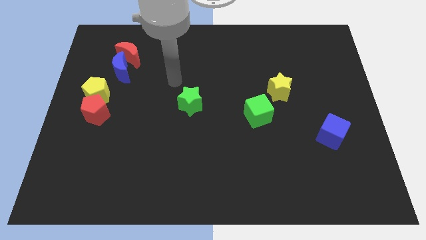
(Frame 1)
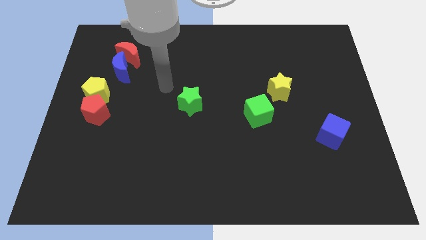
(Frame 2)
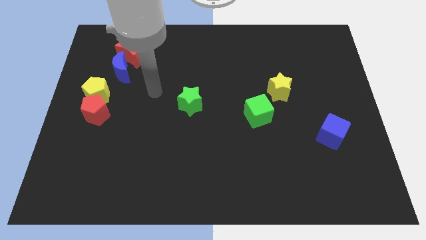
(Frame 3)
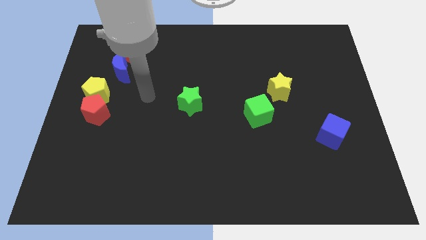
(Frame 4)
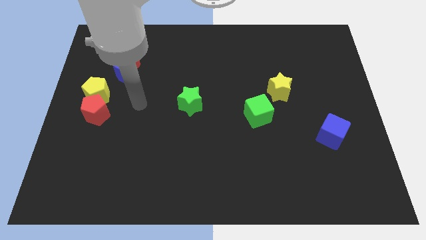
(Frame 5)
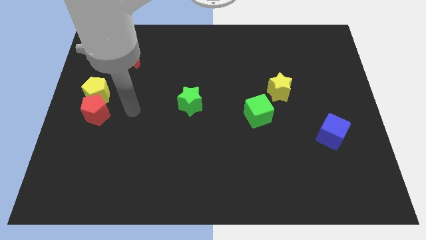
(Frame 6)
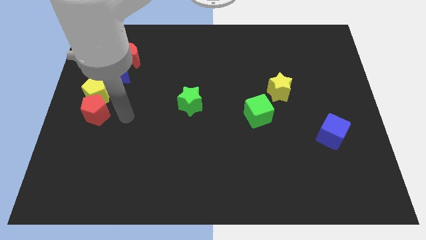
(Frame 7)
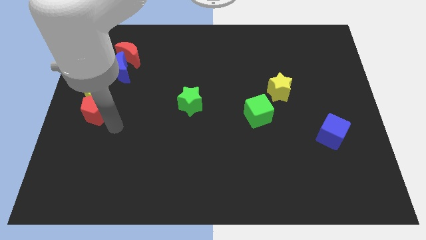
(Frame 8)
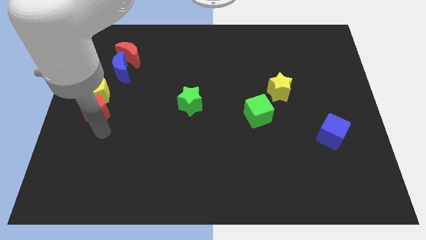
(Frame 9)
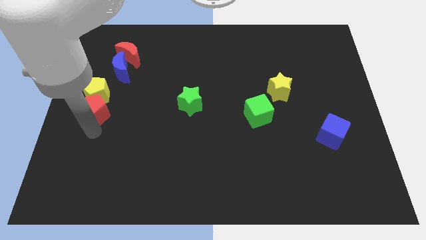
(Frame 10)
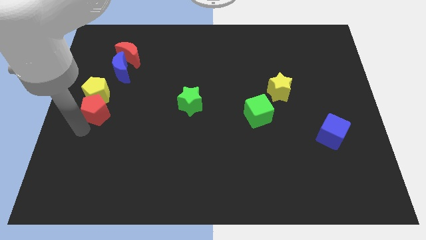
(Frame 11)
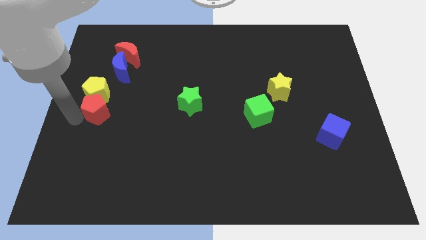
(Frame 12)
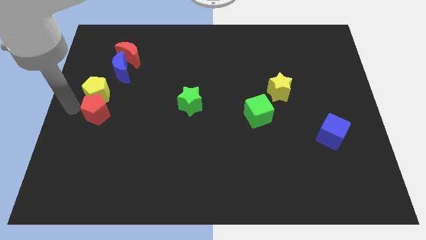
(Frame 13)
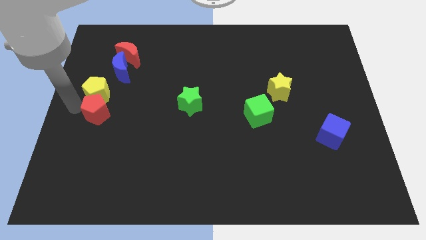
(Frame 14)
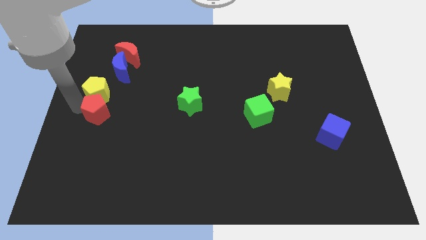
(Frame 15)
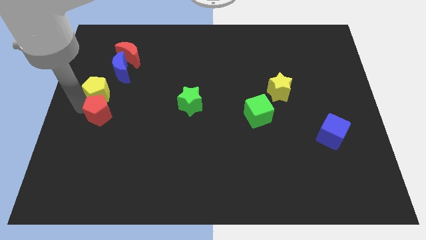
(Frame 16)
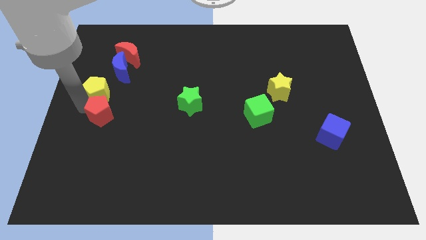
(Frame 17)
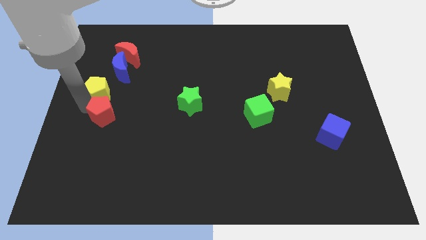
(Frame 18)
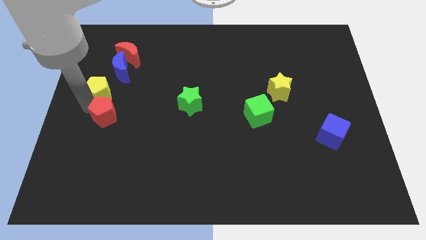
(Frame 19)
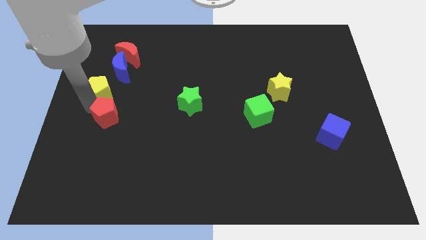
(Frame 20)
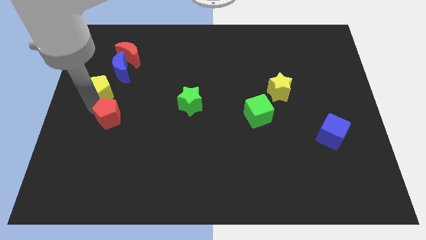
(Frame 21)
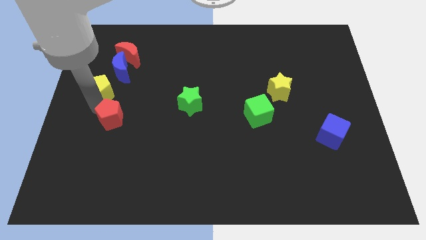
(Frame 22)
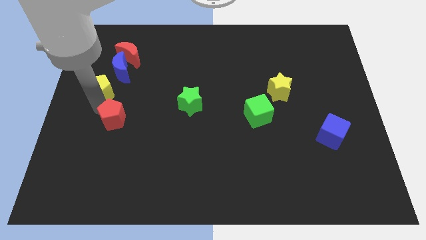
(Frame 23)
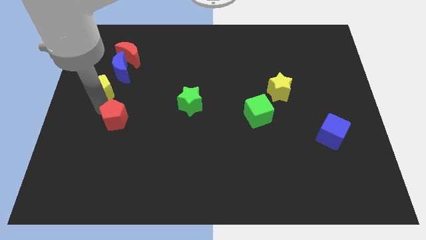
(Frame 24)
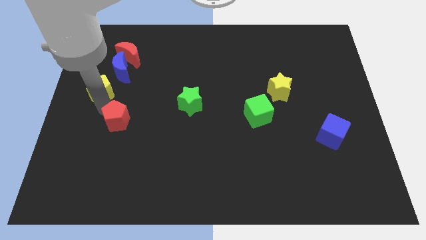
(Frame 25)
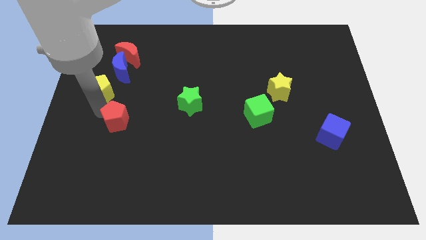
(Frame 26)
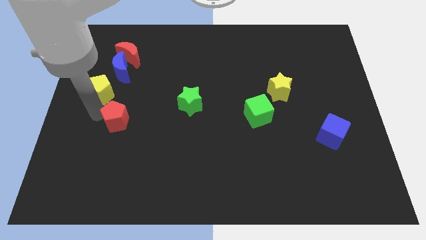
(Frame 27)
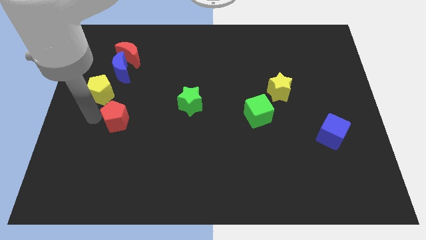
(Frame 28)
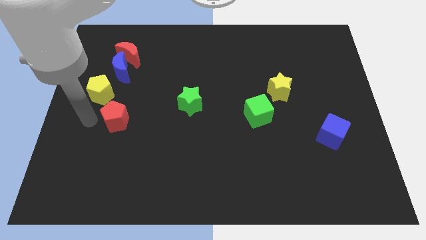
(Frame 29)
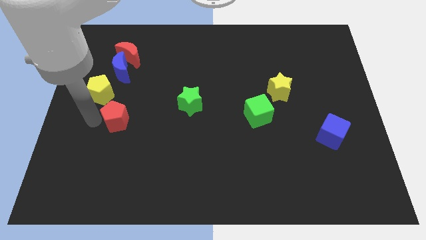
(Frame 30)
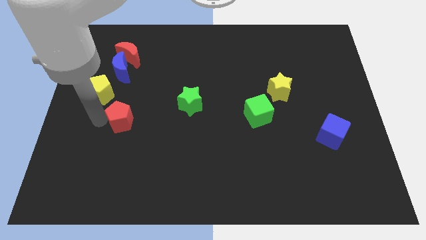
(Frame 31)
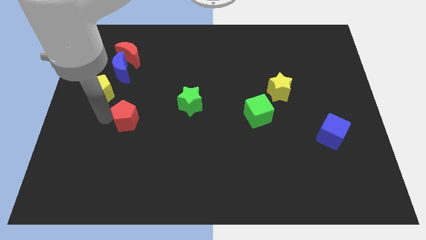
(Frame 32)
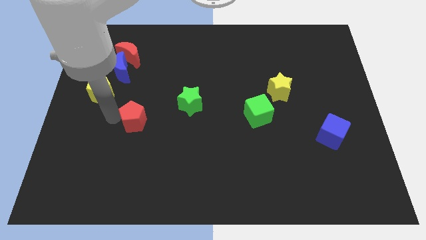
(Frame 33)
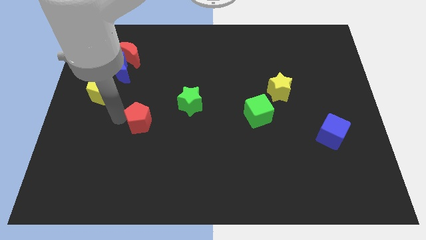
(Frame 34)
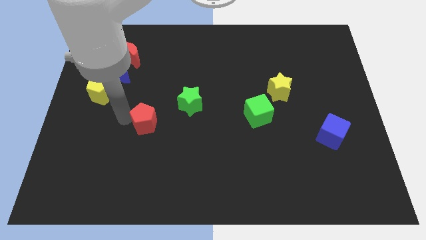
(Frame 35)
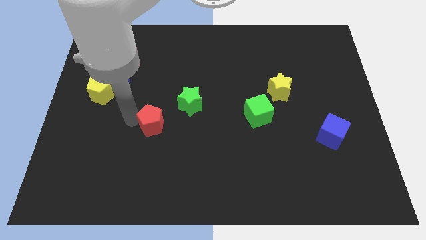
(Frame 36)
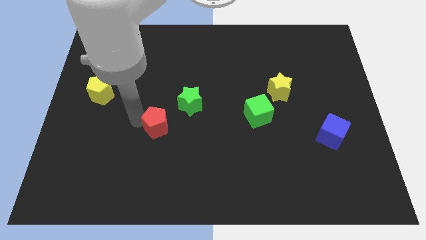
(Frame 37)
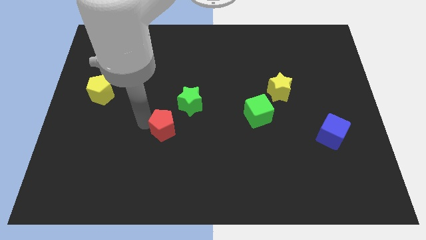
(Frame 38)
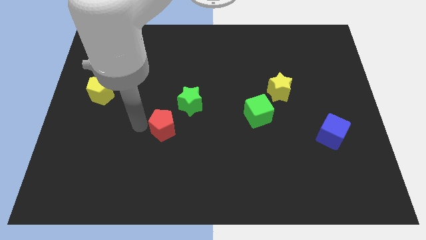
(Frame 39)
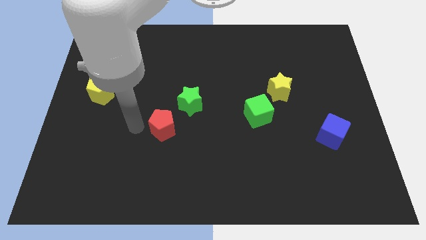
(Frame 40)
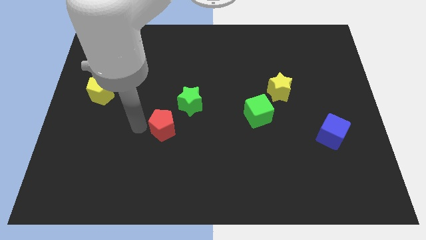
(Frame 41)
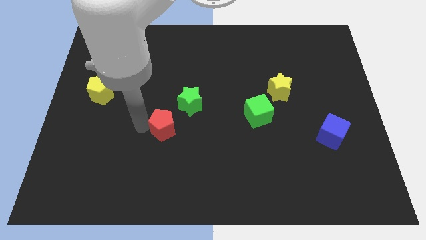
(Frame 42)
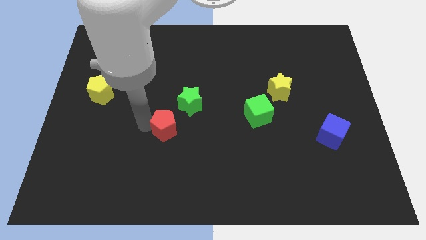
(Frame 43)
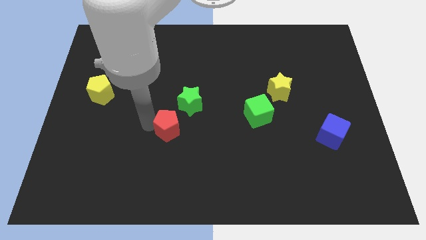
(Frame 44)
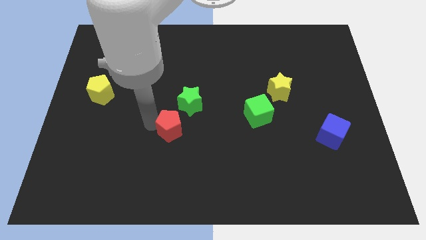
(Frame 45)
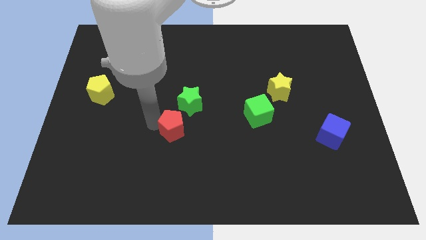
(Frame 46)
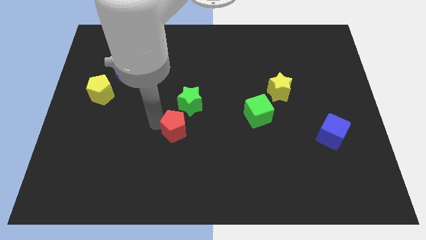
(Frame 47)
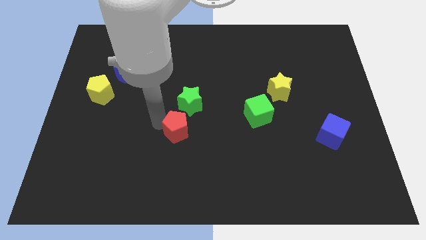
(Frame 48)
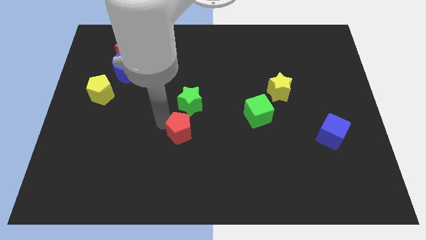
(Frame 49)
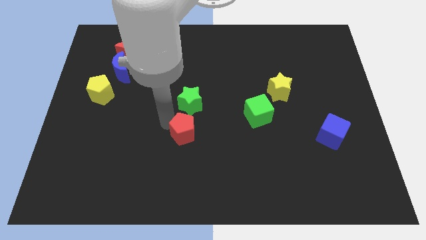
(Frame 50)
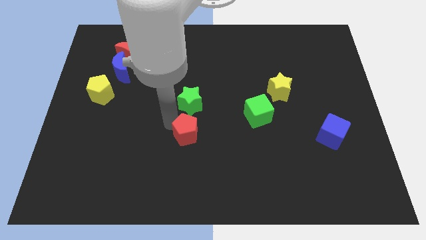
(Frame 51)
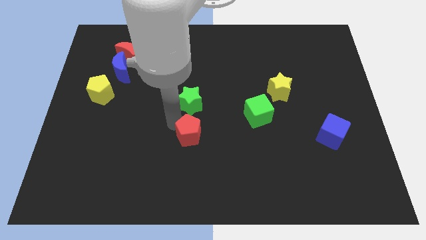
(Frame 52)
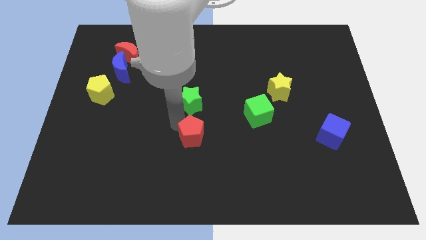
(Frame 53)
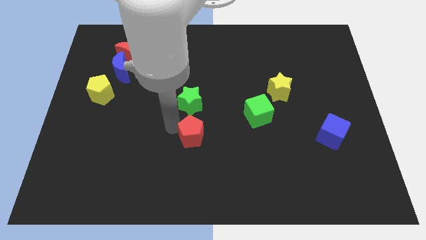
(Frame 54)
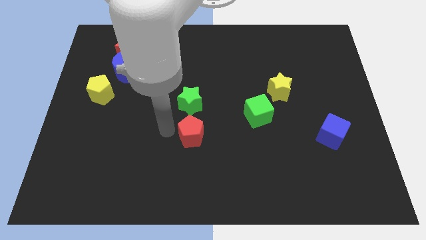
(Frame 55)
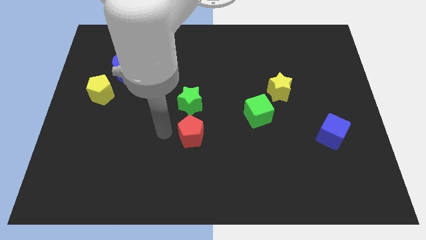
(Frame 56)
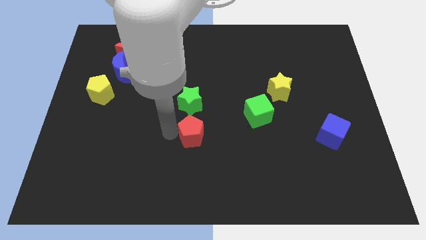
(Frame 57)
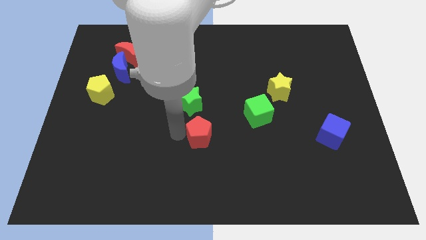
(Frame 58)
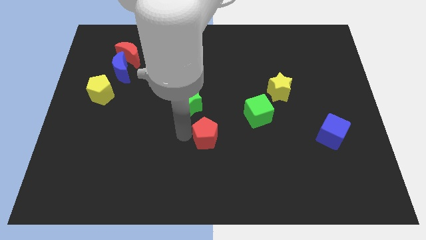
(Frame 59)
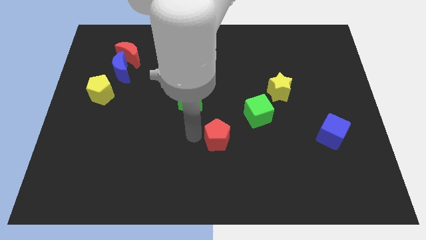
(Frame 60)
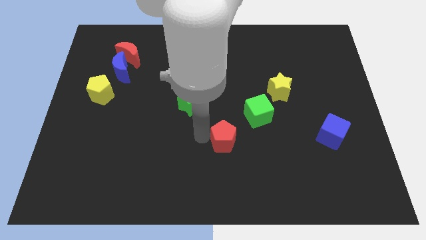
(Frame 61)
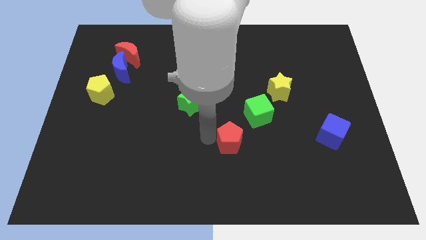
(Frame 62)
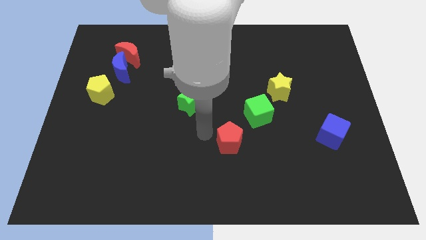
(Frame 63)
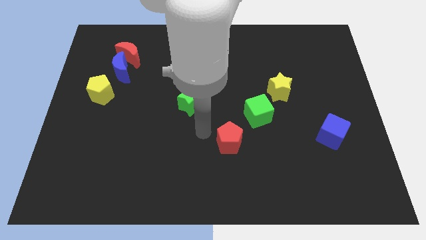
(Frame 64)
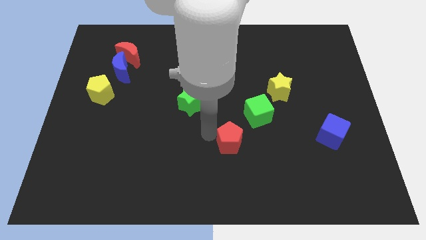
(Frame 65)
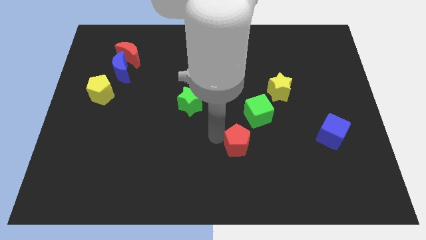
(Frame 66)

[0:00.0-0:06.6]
put the red pentagon to the bottom of the green cube

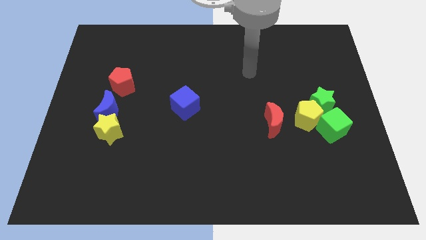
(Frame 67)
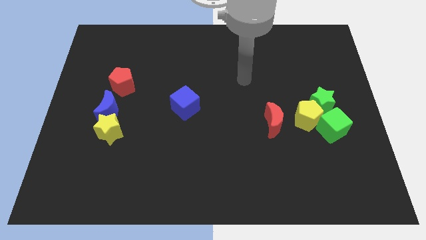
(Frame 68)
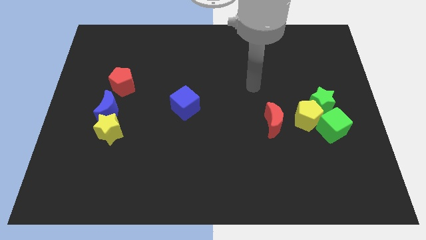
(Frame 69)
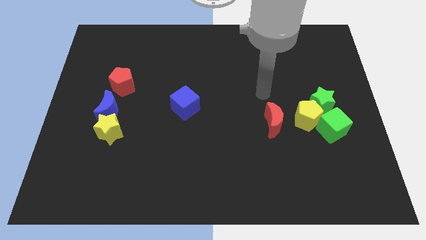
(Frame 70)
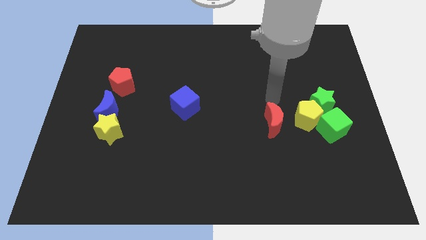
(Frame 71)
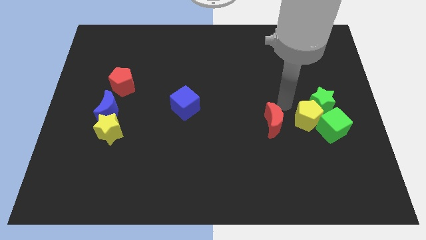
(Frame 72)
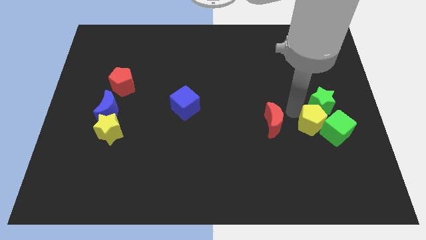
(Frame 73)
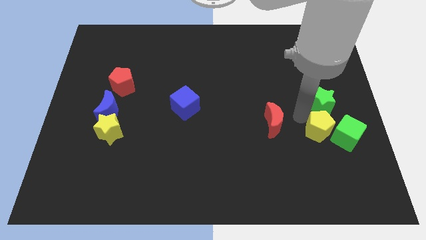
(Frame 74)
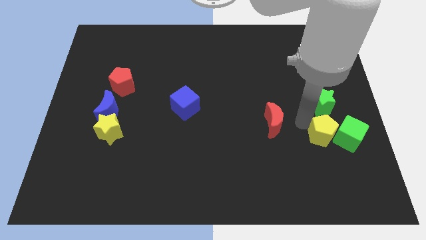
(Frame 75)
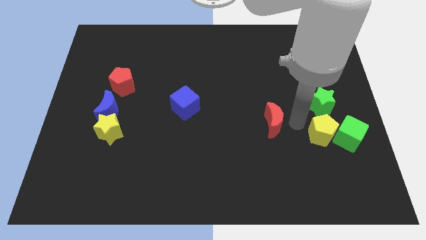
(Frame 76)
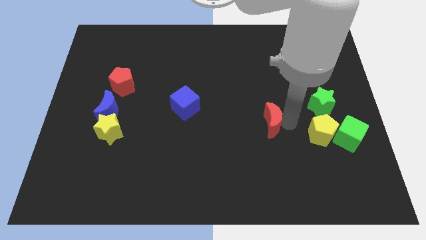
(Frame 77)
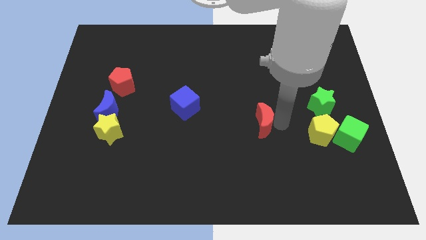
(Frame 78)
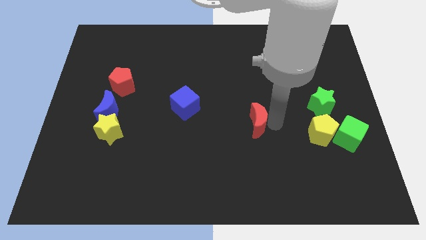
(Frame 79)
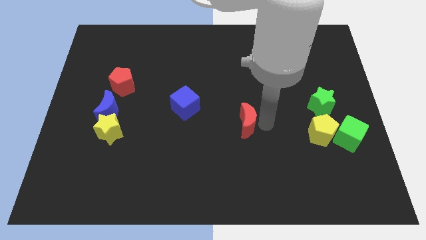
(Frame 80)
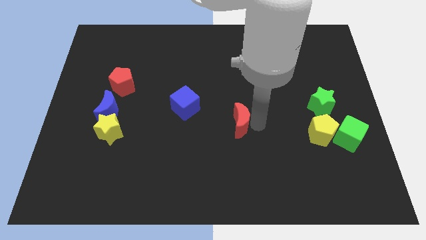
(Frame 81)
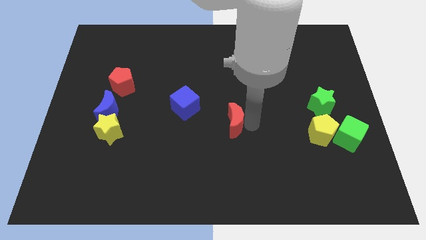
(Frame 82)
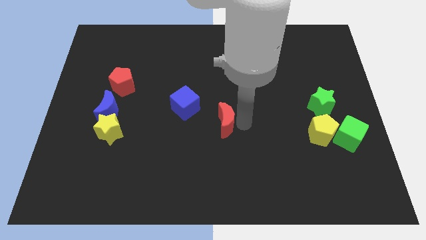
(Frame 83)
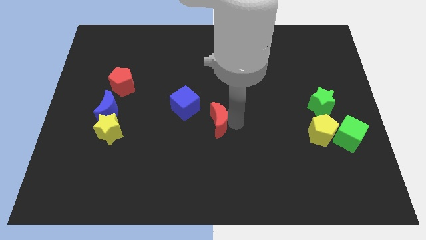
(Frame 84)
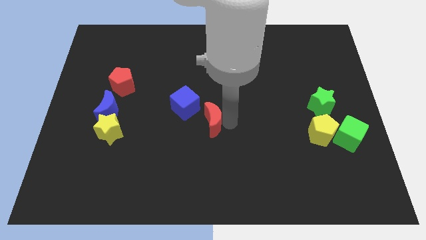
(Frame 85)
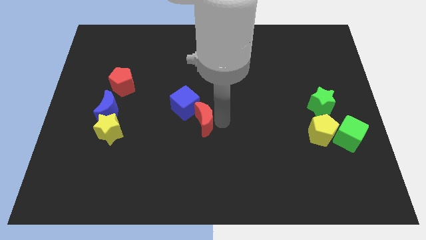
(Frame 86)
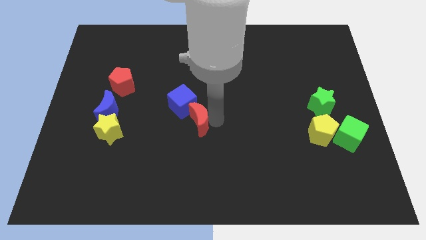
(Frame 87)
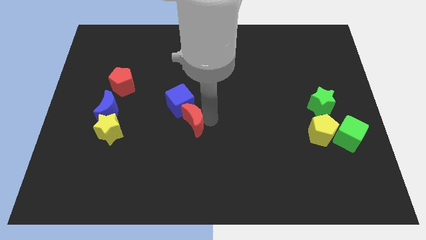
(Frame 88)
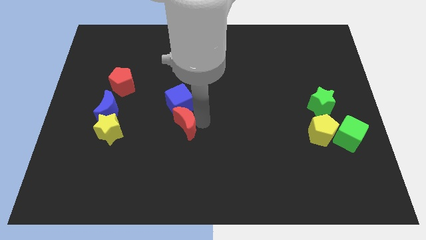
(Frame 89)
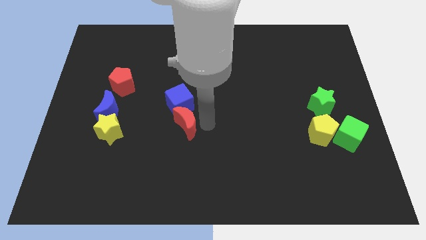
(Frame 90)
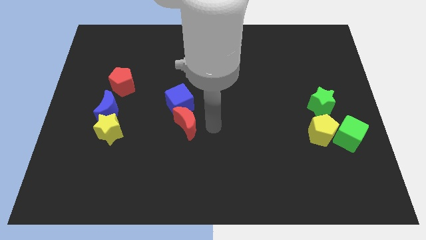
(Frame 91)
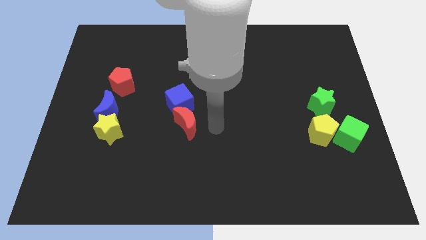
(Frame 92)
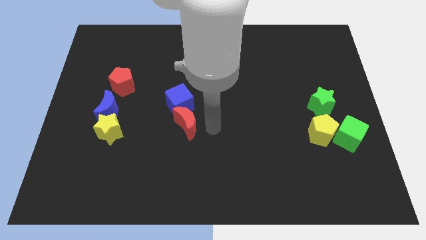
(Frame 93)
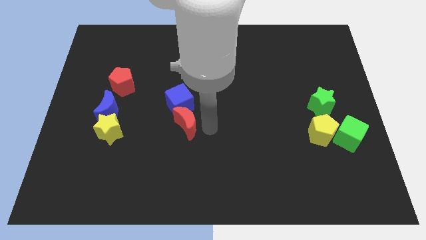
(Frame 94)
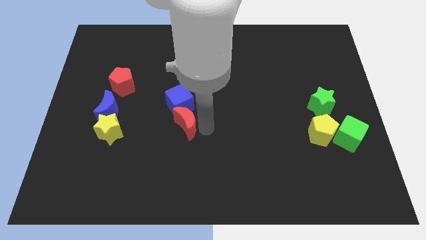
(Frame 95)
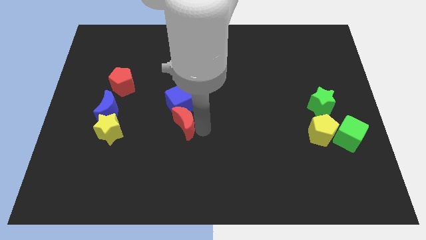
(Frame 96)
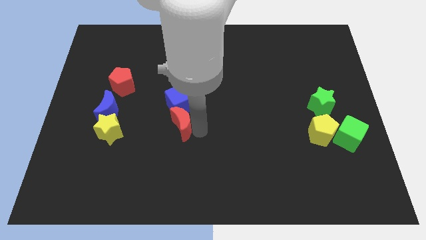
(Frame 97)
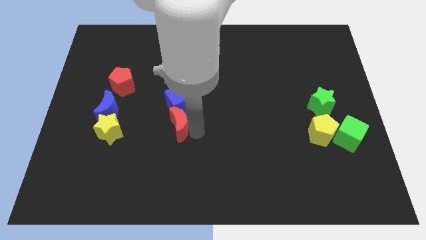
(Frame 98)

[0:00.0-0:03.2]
push the red moon to the bottom left side of the blue cube
